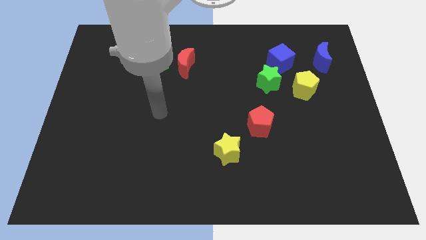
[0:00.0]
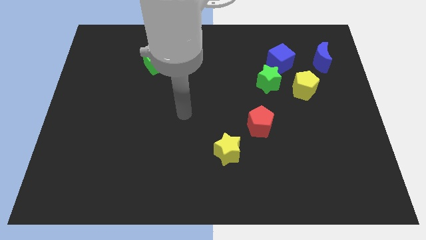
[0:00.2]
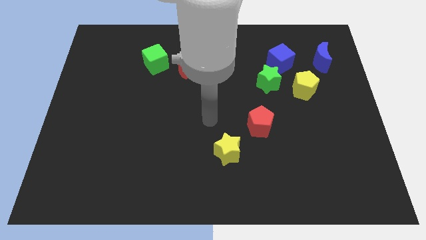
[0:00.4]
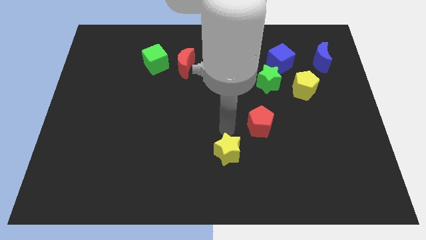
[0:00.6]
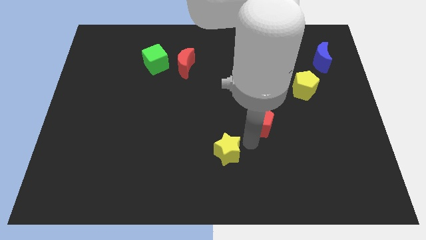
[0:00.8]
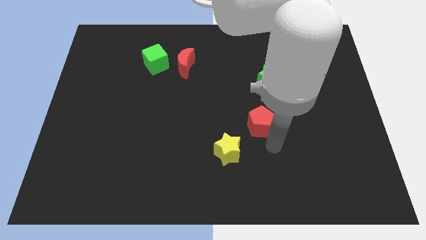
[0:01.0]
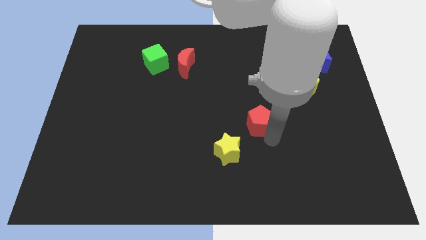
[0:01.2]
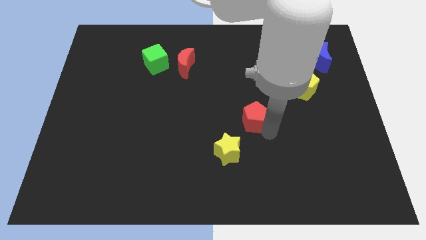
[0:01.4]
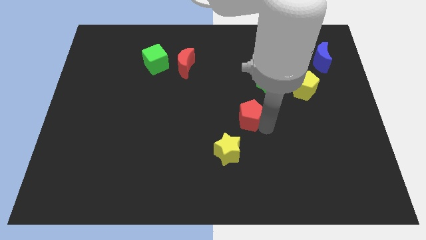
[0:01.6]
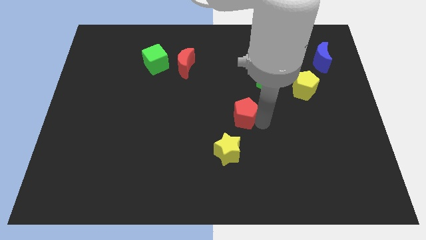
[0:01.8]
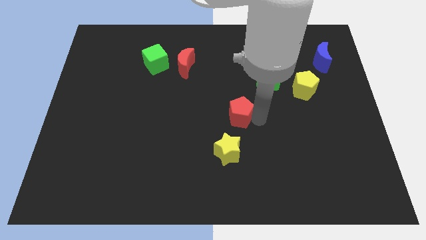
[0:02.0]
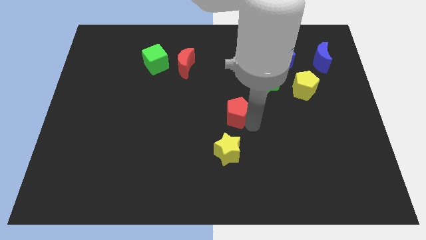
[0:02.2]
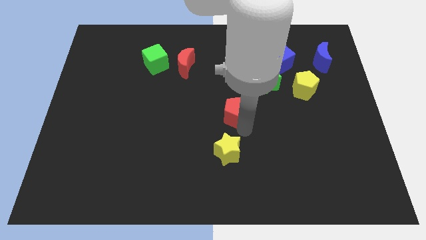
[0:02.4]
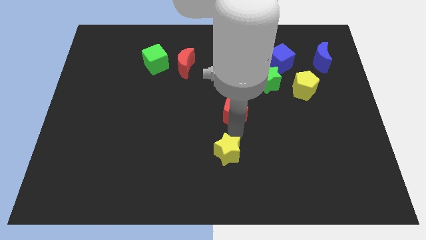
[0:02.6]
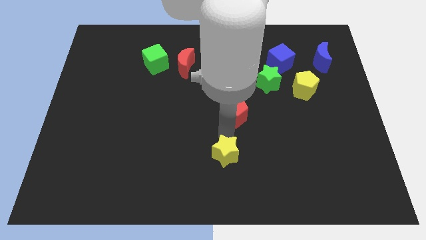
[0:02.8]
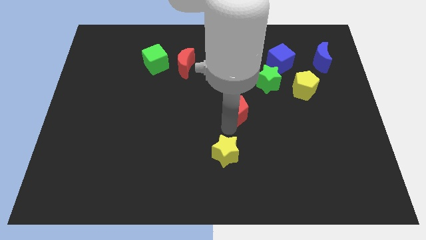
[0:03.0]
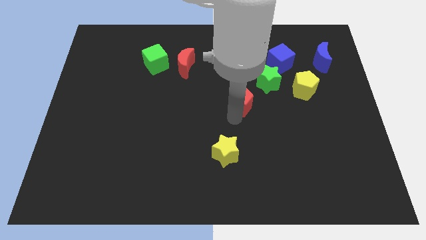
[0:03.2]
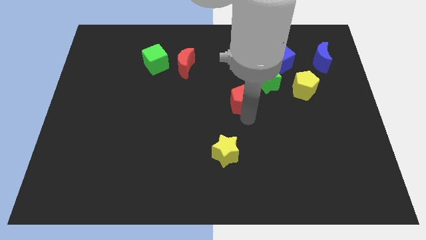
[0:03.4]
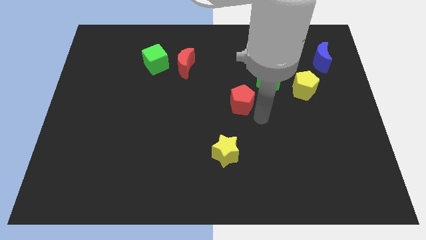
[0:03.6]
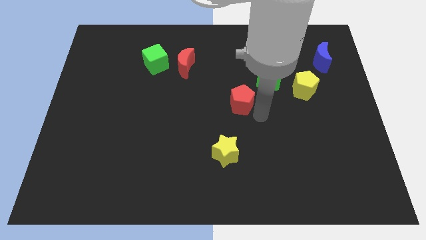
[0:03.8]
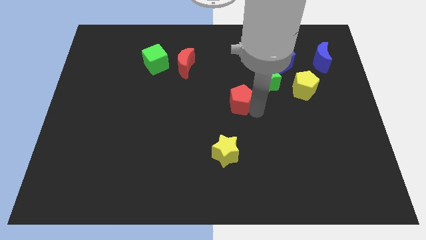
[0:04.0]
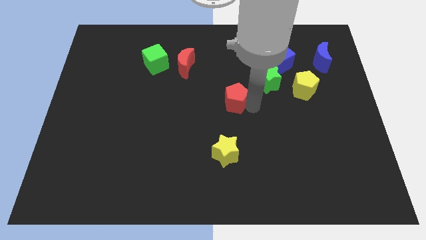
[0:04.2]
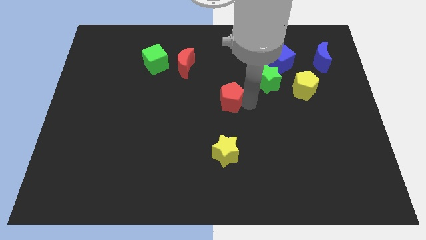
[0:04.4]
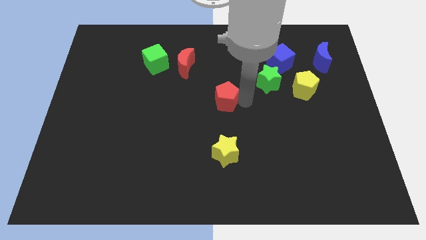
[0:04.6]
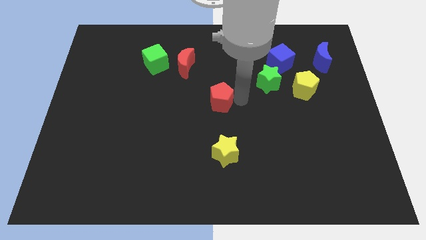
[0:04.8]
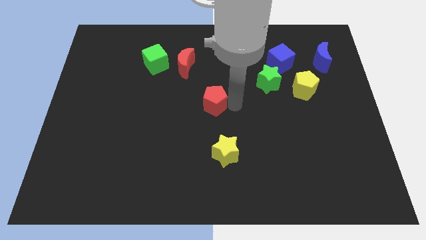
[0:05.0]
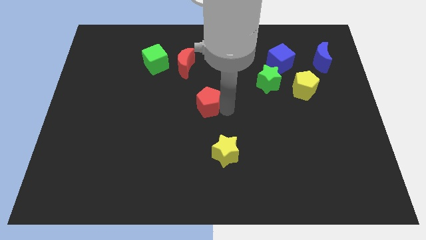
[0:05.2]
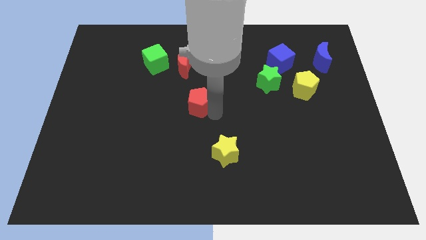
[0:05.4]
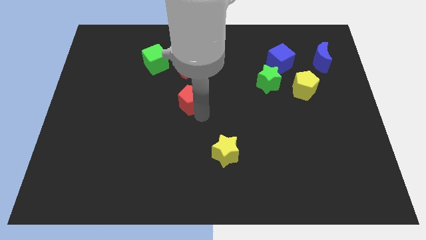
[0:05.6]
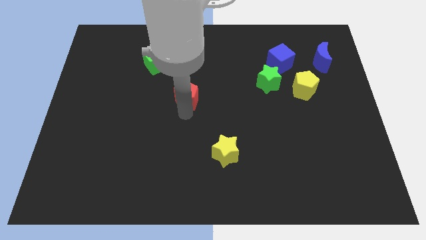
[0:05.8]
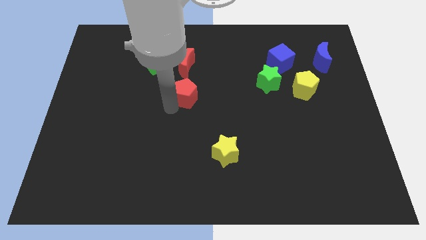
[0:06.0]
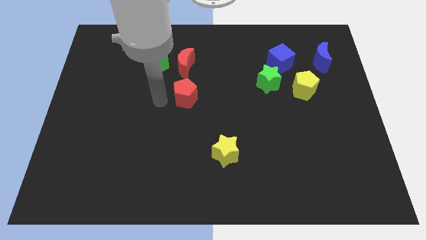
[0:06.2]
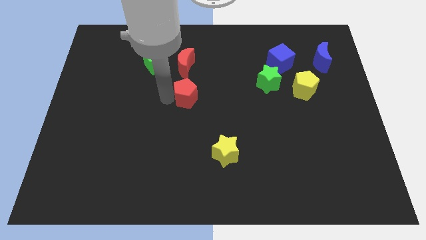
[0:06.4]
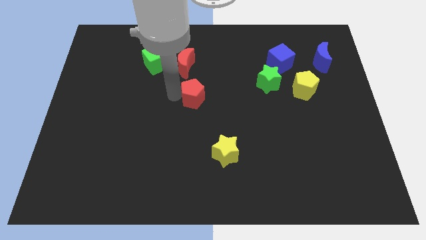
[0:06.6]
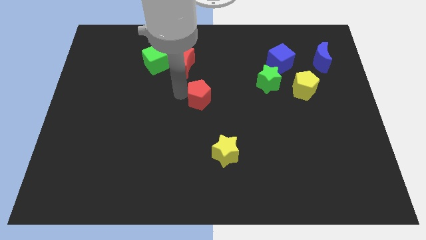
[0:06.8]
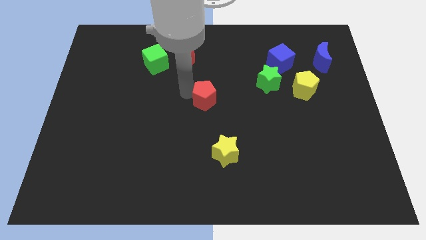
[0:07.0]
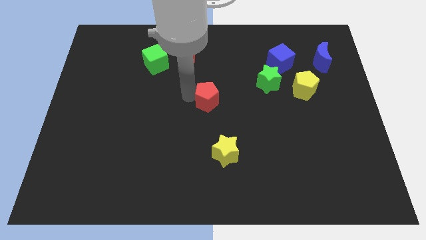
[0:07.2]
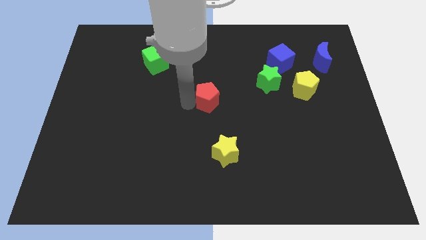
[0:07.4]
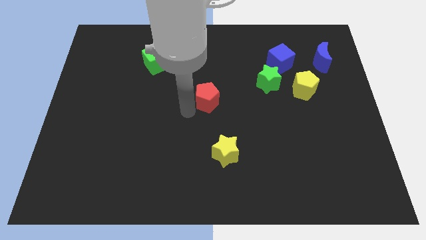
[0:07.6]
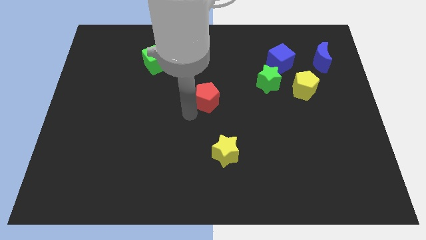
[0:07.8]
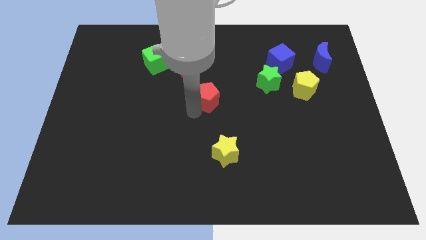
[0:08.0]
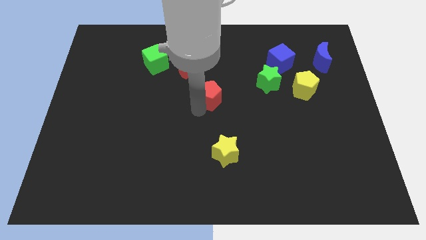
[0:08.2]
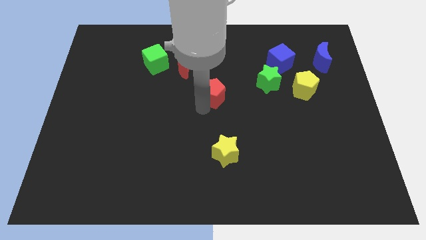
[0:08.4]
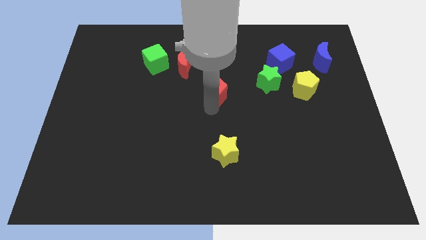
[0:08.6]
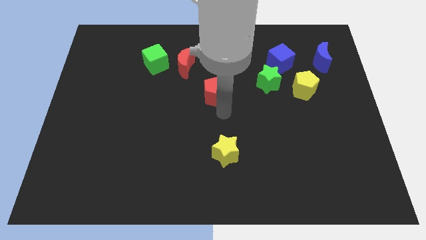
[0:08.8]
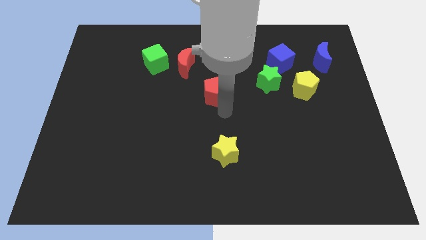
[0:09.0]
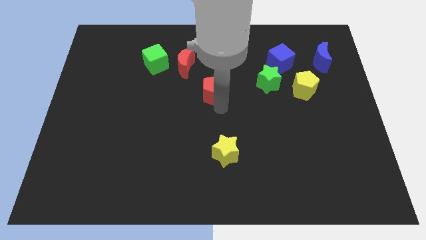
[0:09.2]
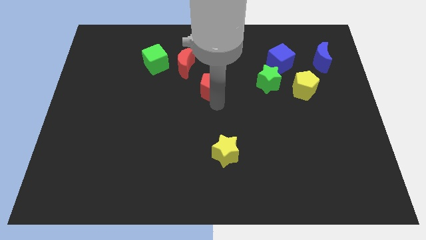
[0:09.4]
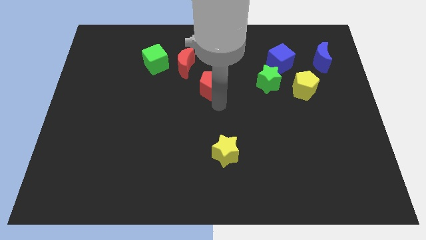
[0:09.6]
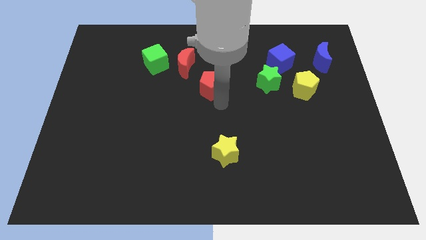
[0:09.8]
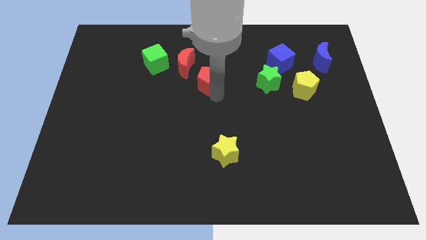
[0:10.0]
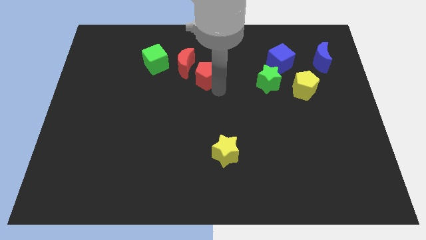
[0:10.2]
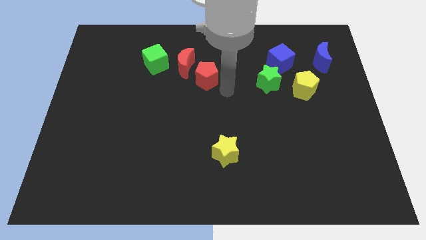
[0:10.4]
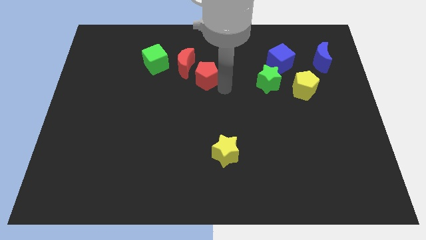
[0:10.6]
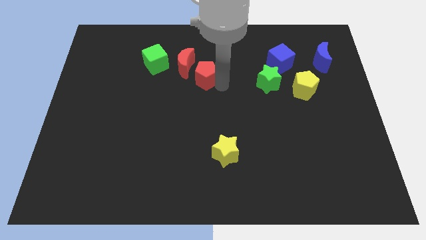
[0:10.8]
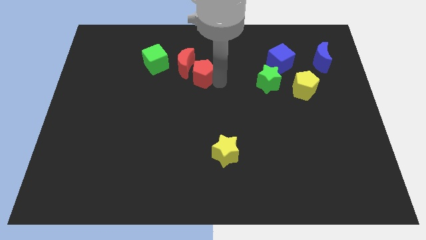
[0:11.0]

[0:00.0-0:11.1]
push the red pentagon next to the red moon

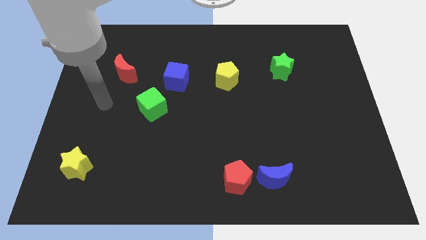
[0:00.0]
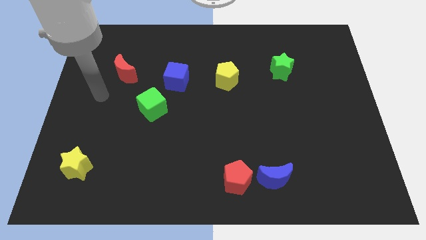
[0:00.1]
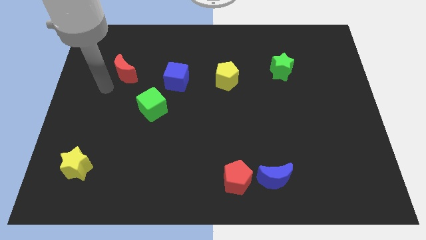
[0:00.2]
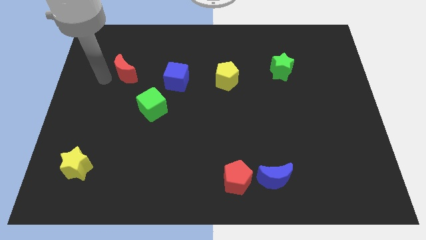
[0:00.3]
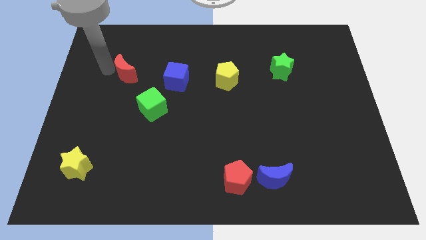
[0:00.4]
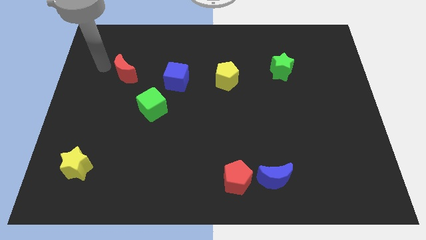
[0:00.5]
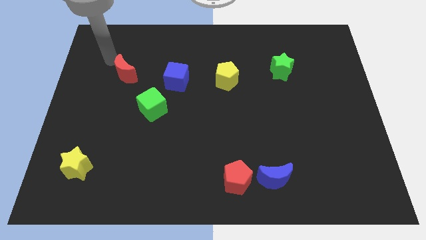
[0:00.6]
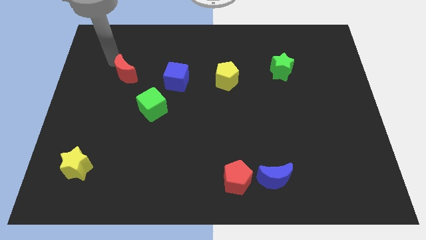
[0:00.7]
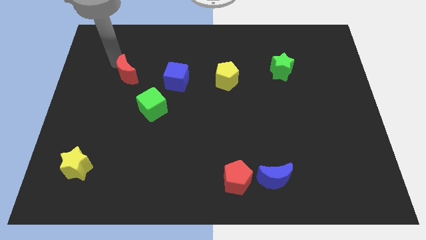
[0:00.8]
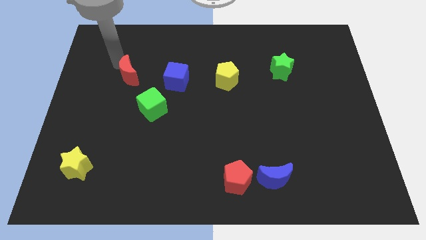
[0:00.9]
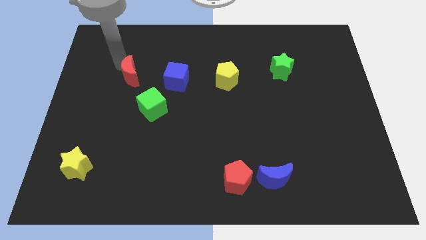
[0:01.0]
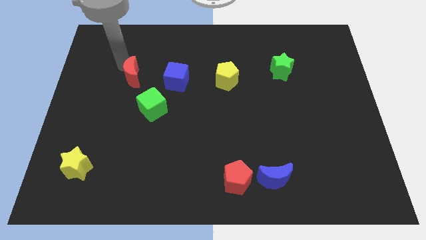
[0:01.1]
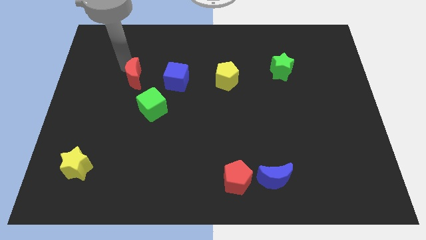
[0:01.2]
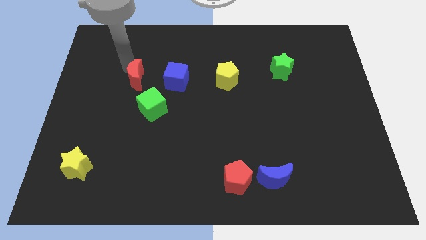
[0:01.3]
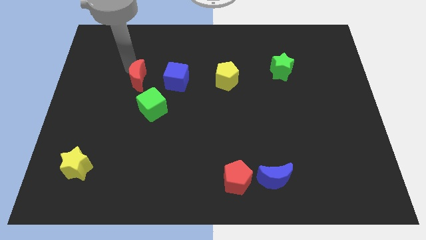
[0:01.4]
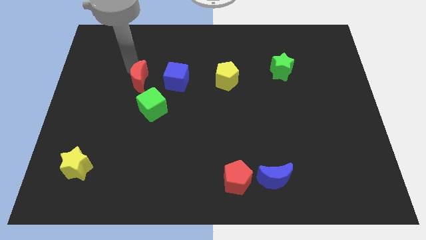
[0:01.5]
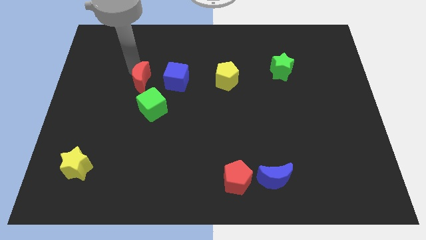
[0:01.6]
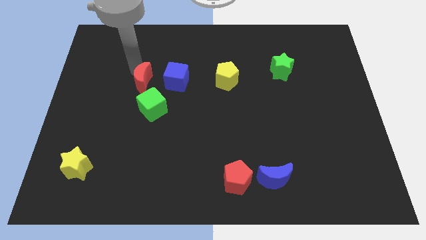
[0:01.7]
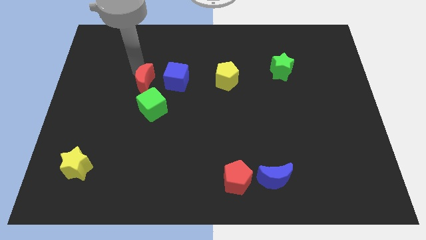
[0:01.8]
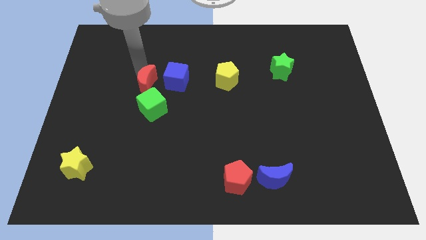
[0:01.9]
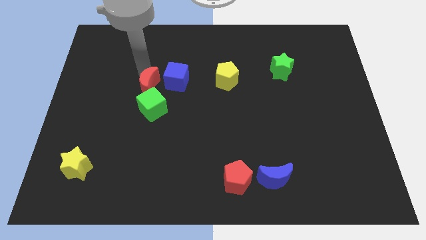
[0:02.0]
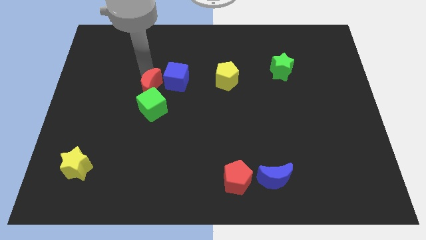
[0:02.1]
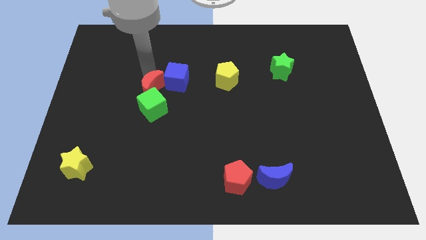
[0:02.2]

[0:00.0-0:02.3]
slide the red moon close to the green cube
